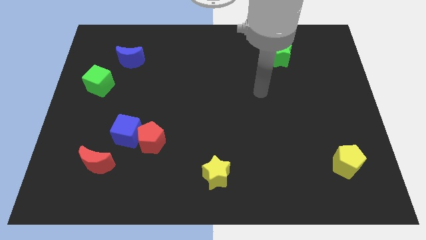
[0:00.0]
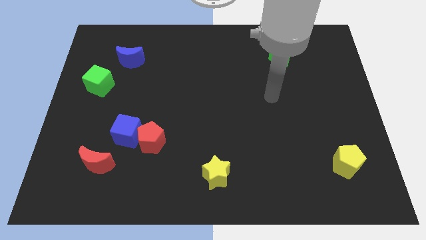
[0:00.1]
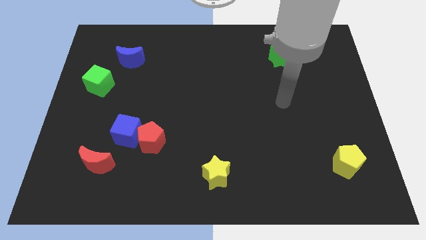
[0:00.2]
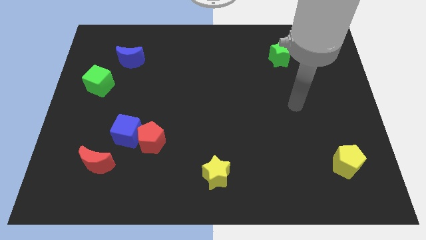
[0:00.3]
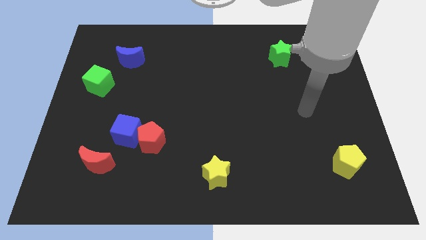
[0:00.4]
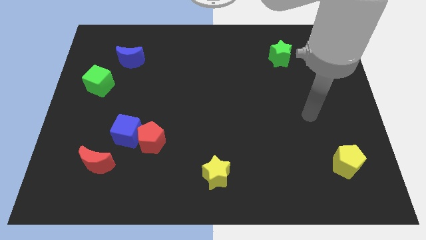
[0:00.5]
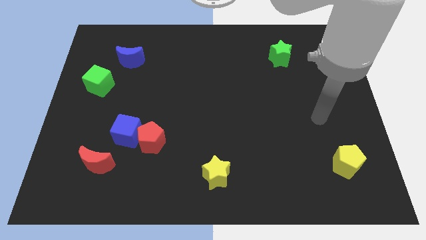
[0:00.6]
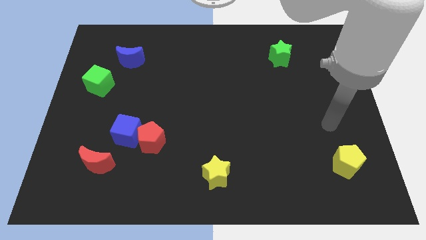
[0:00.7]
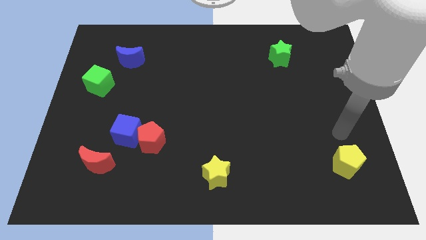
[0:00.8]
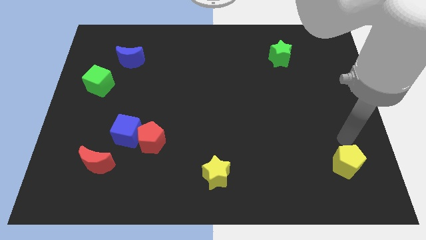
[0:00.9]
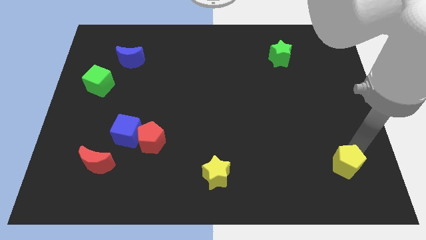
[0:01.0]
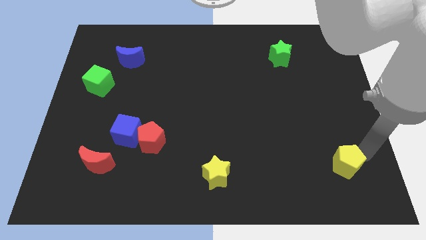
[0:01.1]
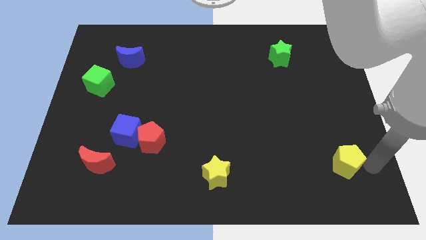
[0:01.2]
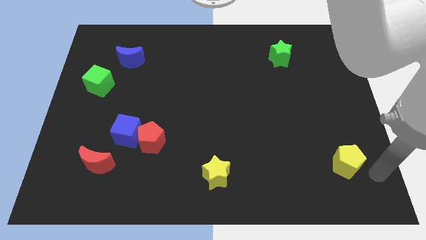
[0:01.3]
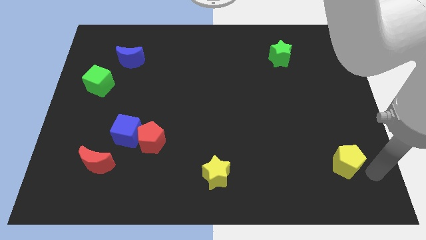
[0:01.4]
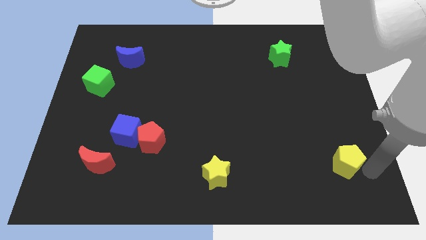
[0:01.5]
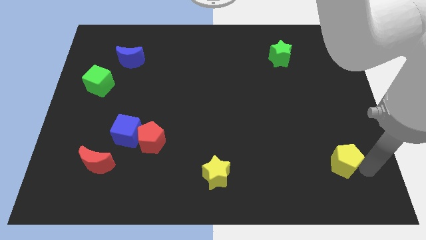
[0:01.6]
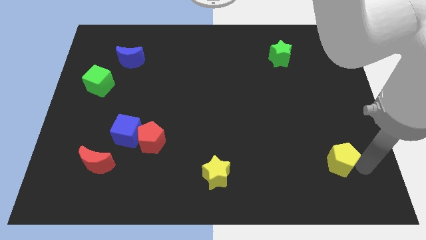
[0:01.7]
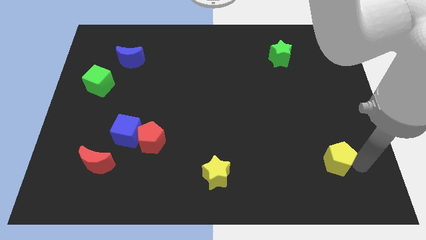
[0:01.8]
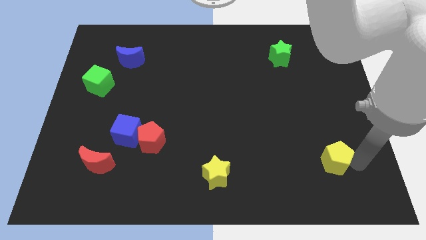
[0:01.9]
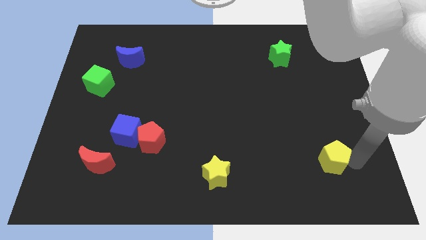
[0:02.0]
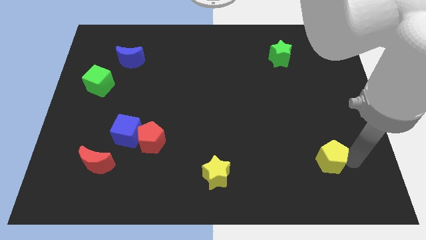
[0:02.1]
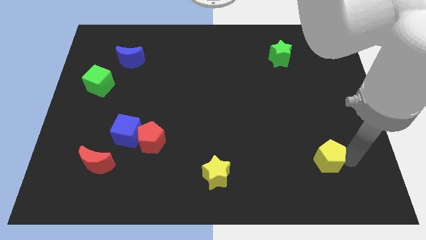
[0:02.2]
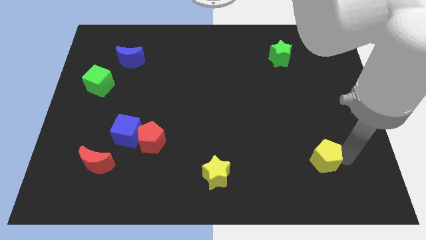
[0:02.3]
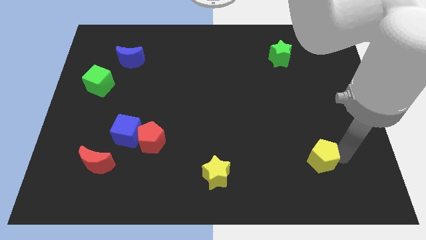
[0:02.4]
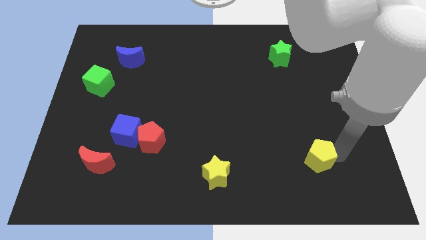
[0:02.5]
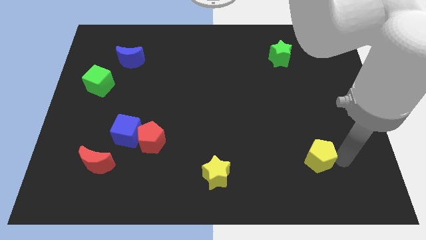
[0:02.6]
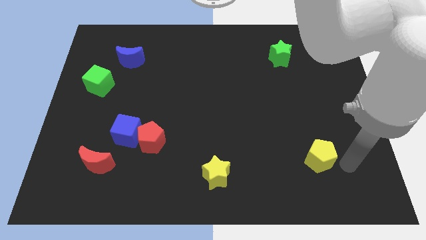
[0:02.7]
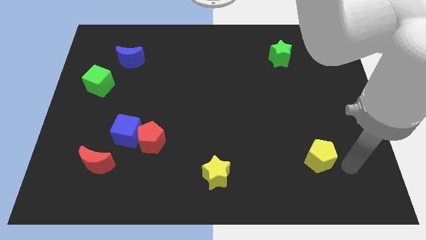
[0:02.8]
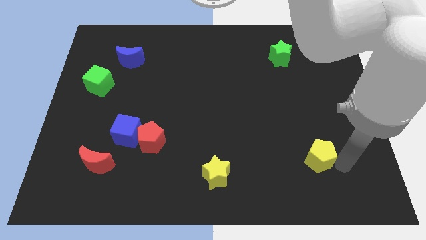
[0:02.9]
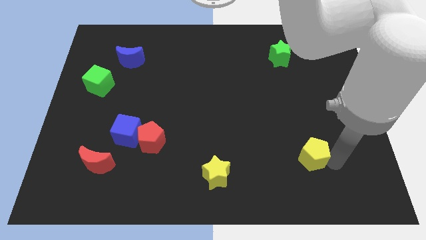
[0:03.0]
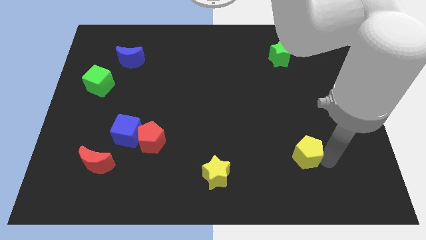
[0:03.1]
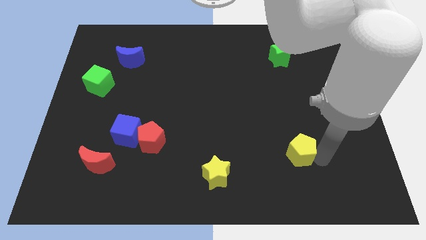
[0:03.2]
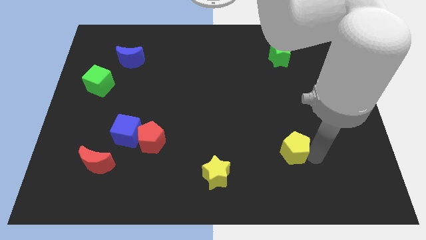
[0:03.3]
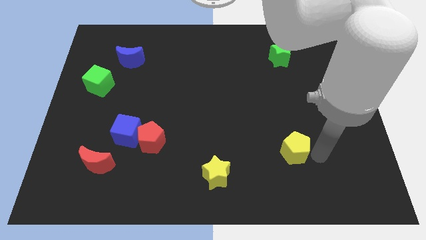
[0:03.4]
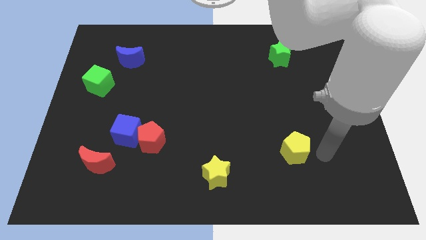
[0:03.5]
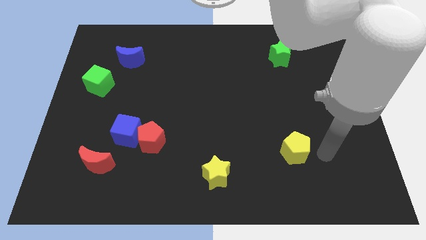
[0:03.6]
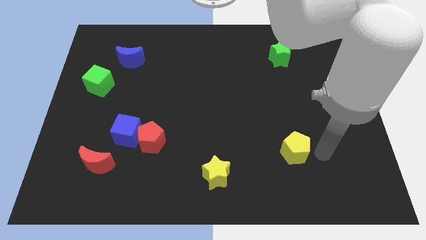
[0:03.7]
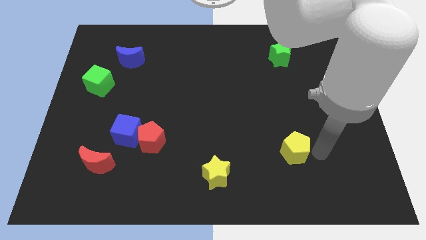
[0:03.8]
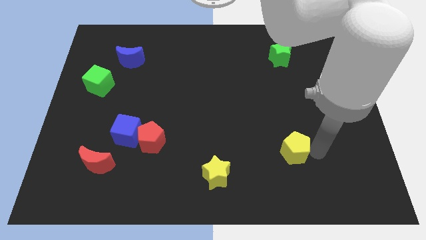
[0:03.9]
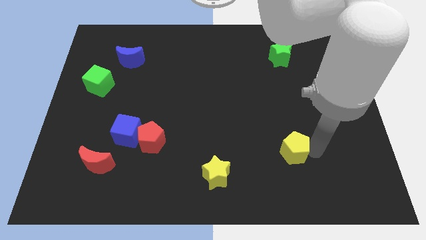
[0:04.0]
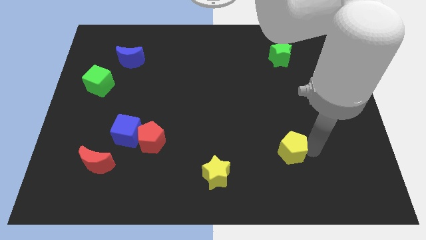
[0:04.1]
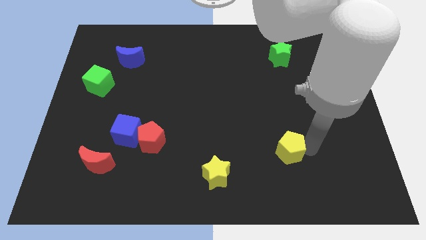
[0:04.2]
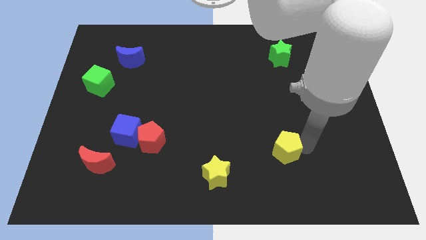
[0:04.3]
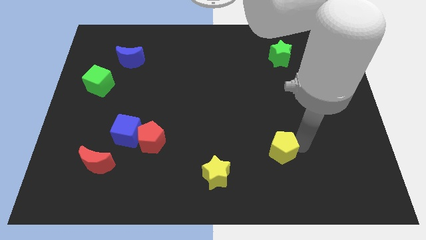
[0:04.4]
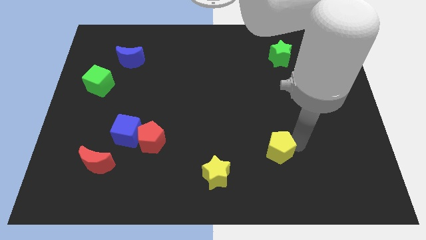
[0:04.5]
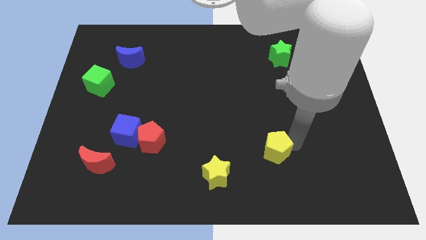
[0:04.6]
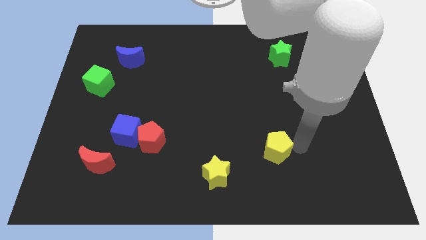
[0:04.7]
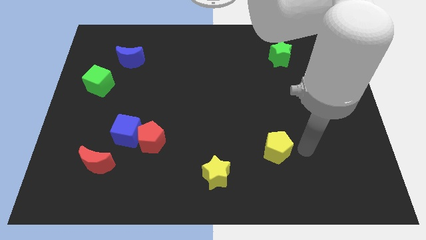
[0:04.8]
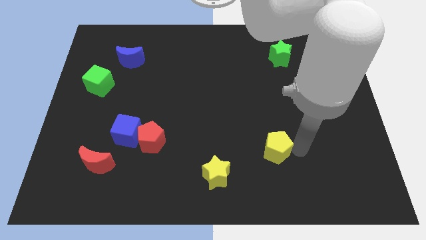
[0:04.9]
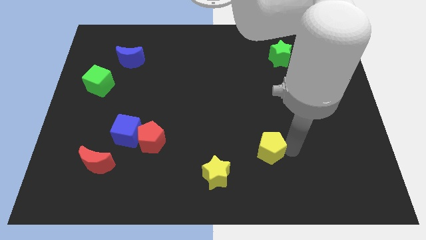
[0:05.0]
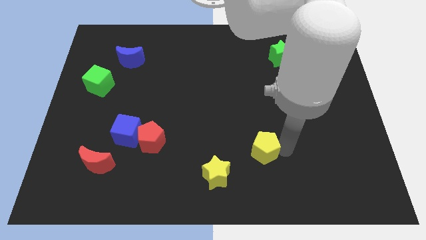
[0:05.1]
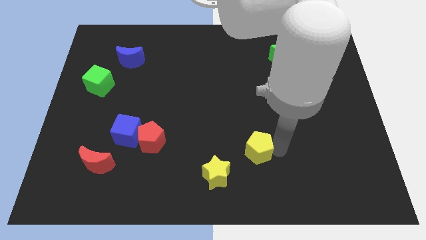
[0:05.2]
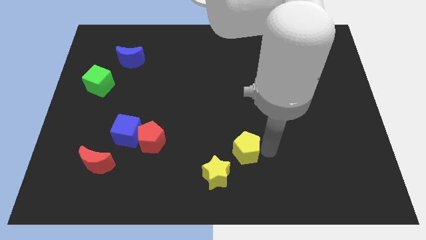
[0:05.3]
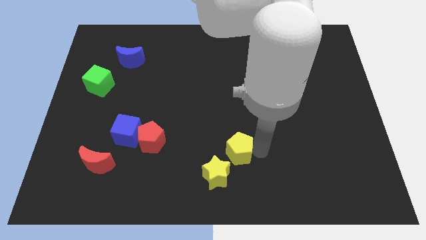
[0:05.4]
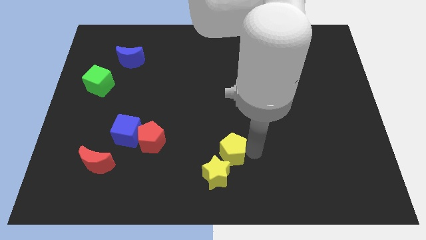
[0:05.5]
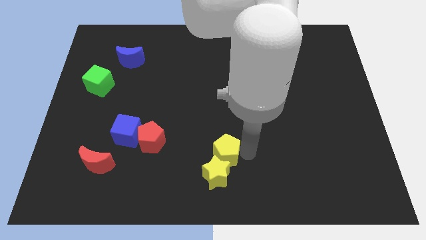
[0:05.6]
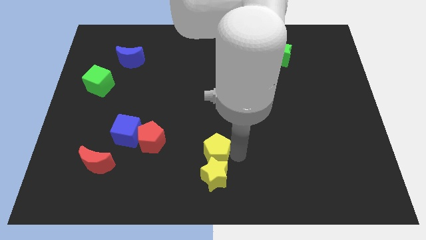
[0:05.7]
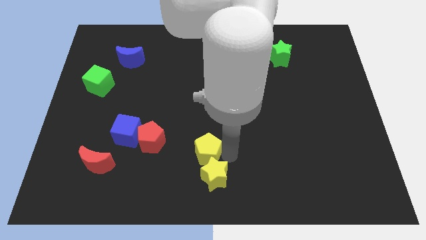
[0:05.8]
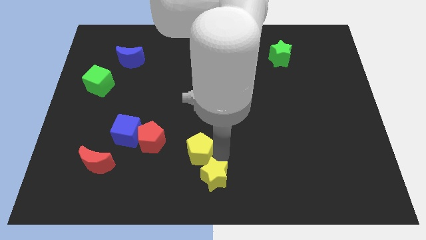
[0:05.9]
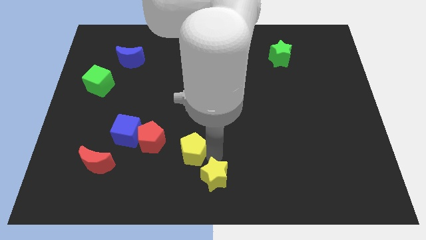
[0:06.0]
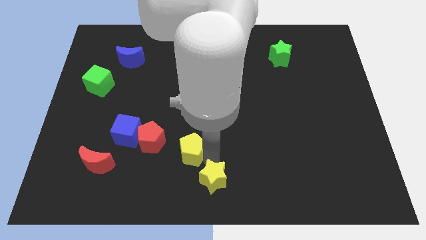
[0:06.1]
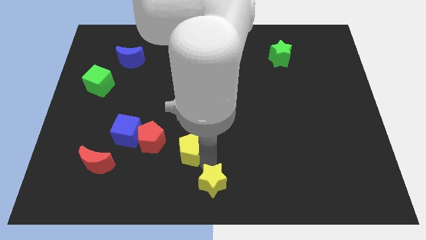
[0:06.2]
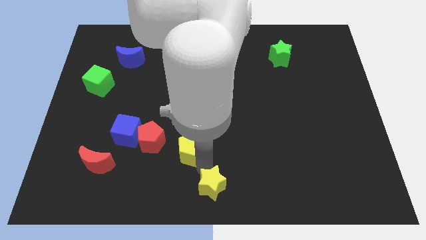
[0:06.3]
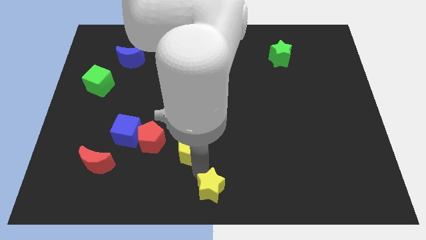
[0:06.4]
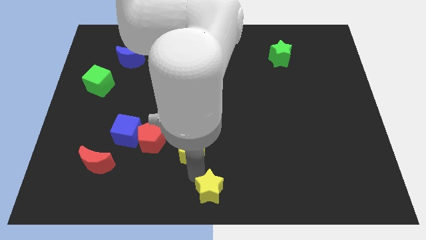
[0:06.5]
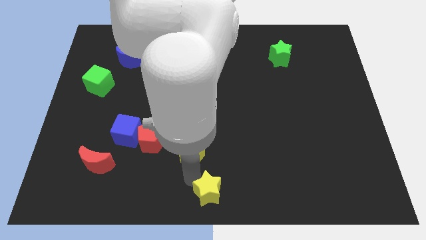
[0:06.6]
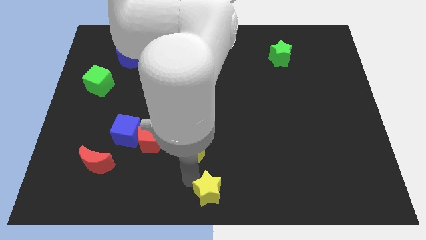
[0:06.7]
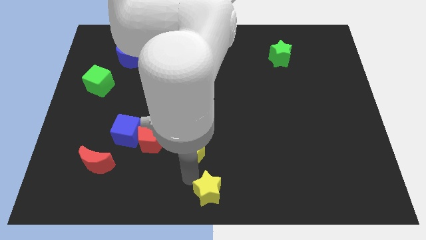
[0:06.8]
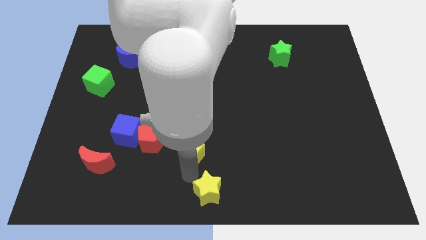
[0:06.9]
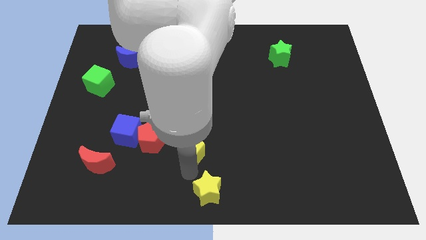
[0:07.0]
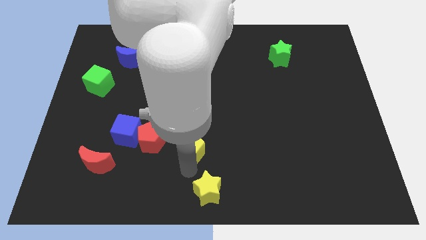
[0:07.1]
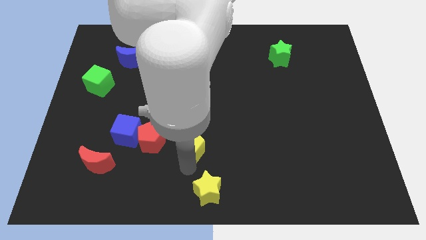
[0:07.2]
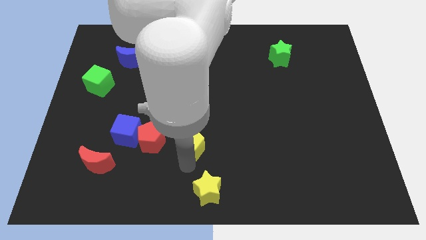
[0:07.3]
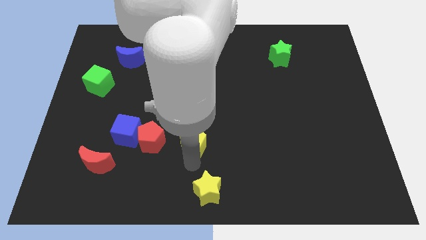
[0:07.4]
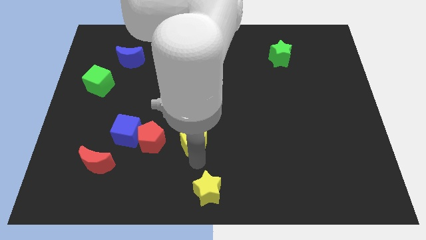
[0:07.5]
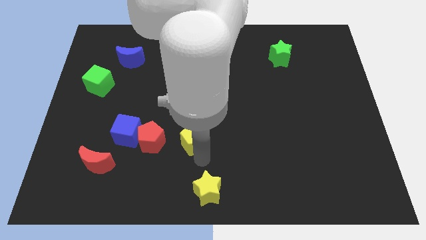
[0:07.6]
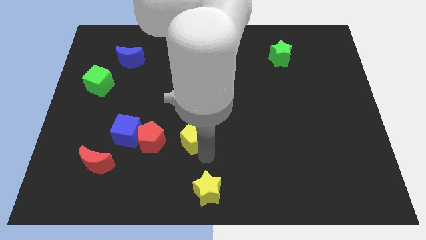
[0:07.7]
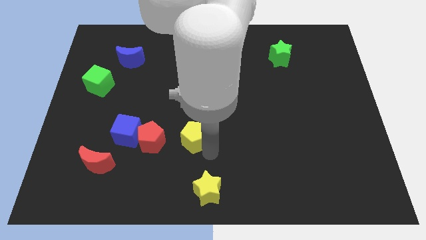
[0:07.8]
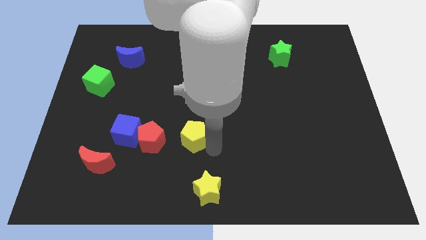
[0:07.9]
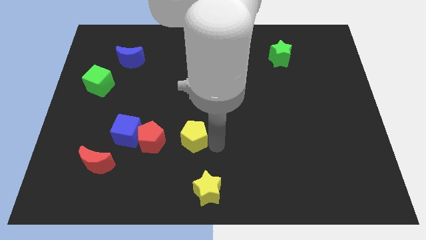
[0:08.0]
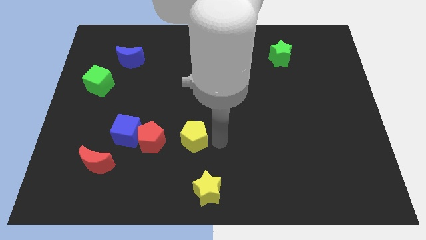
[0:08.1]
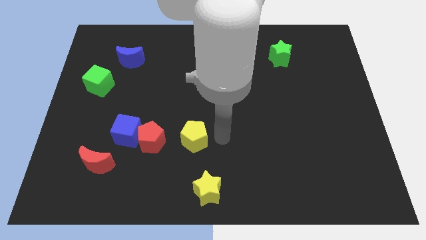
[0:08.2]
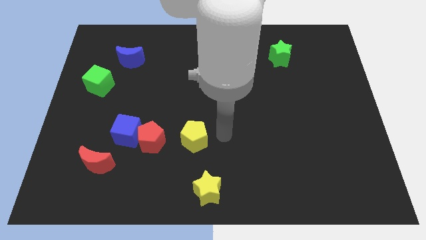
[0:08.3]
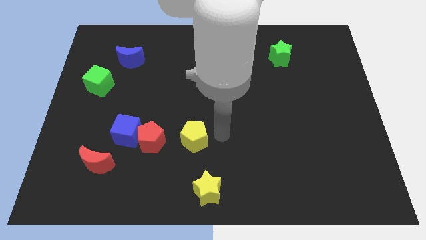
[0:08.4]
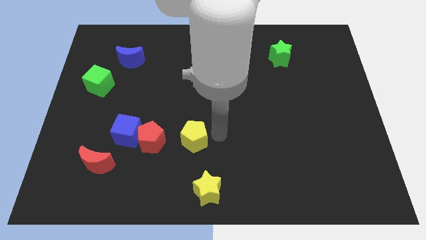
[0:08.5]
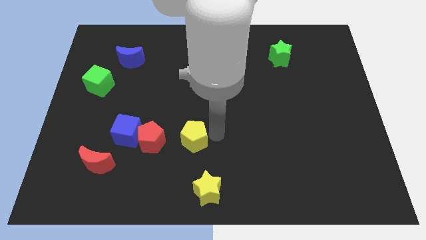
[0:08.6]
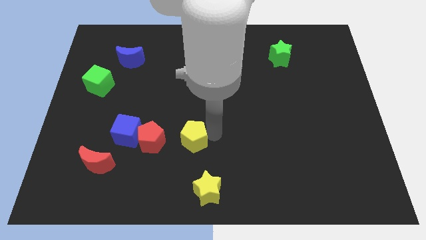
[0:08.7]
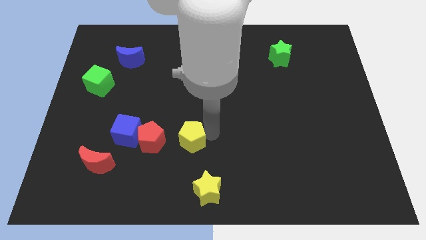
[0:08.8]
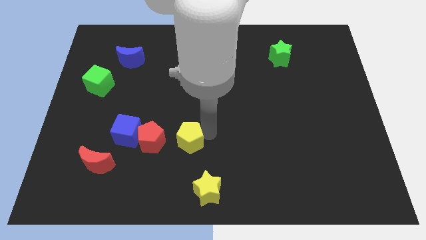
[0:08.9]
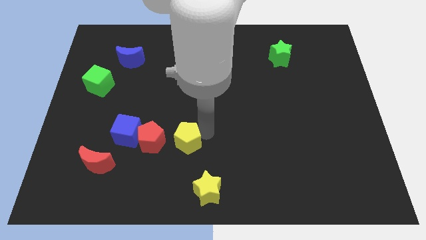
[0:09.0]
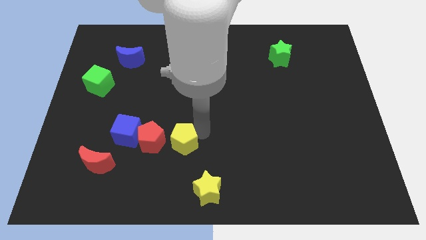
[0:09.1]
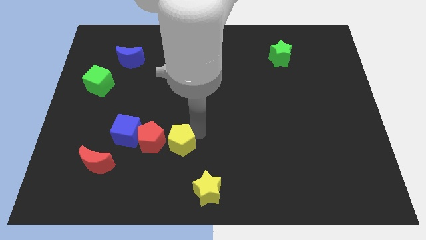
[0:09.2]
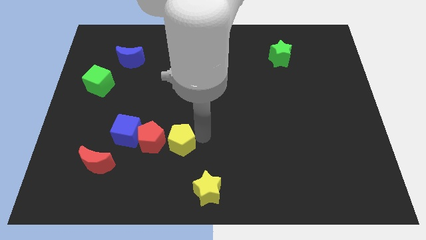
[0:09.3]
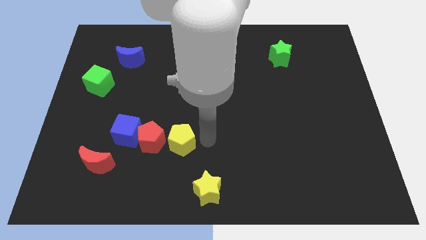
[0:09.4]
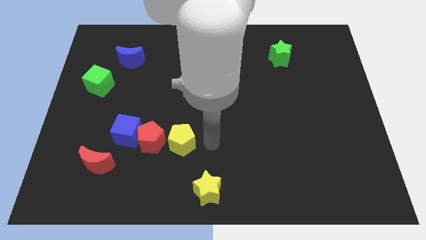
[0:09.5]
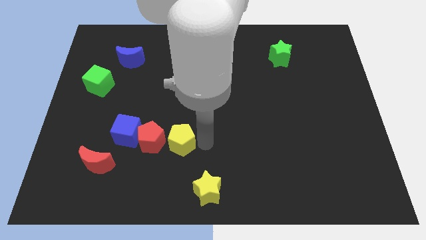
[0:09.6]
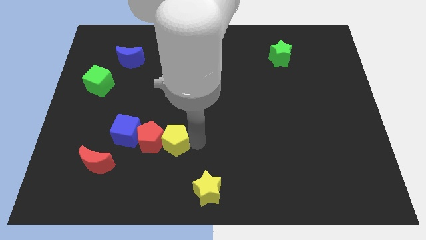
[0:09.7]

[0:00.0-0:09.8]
move the yellow pentagon close to the red pentagon
